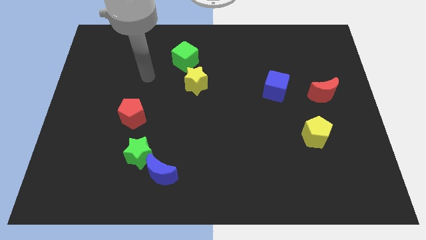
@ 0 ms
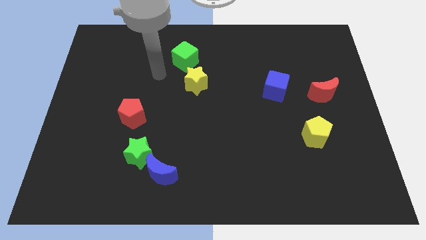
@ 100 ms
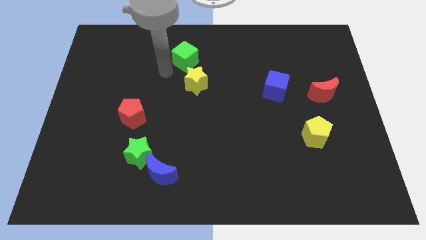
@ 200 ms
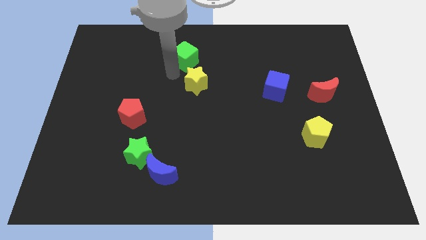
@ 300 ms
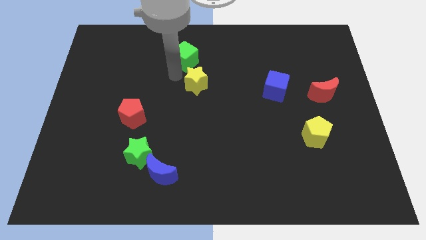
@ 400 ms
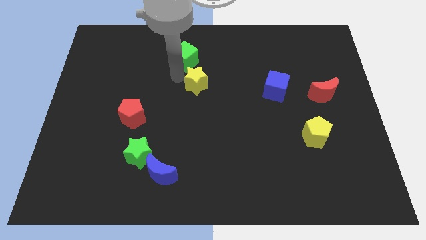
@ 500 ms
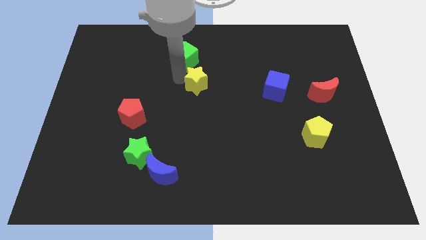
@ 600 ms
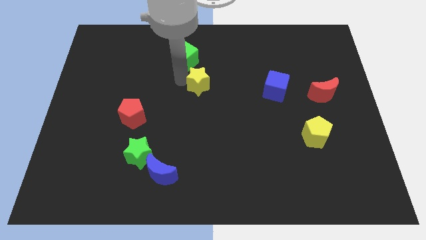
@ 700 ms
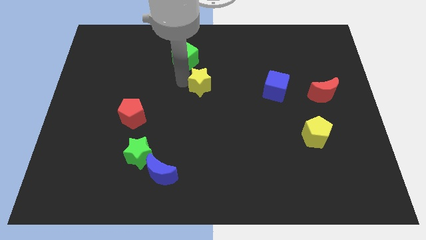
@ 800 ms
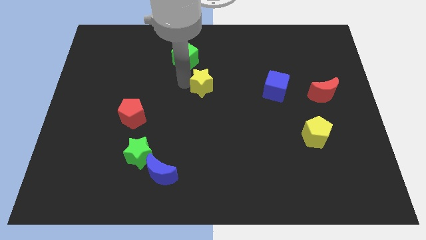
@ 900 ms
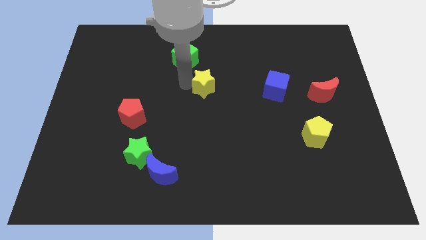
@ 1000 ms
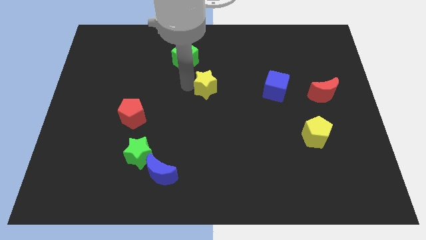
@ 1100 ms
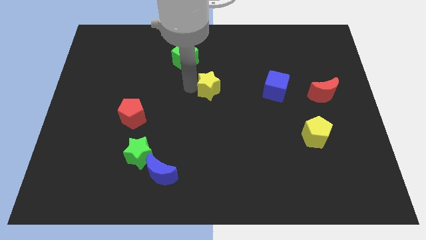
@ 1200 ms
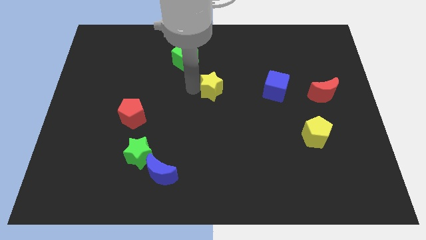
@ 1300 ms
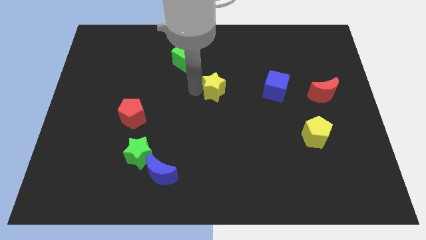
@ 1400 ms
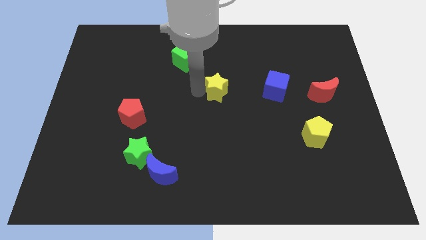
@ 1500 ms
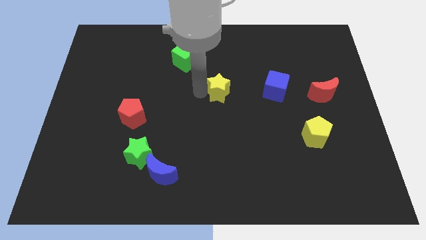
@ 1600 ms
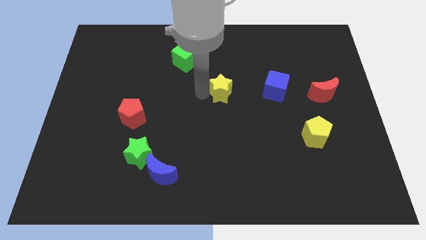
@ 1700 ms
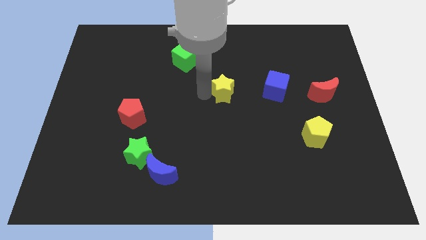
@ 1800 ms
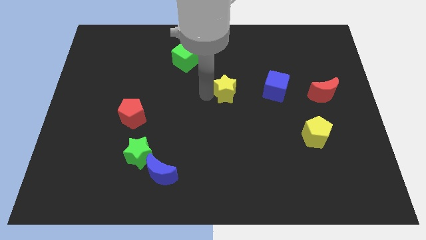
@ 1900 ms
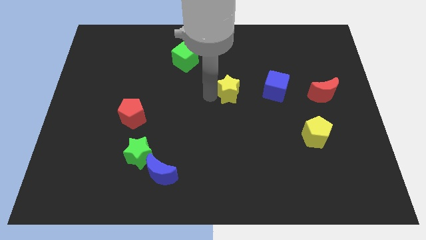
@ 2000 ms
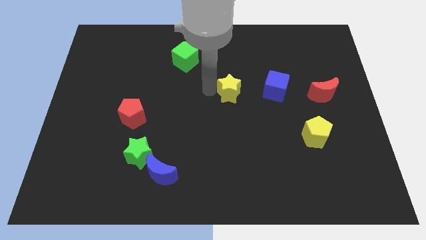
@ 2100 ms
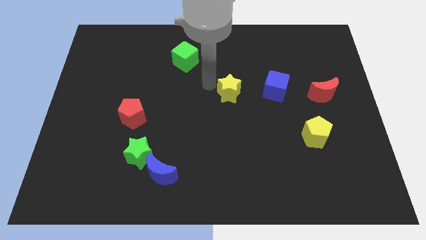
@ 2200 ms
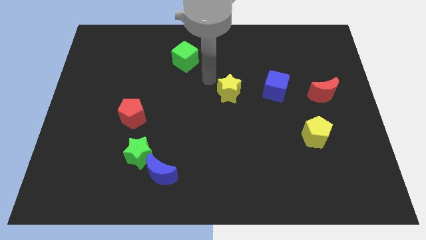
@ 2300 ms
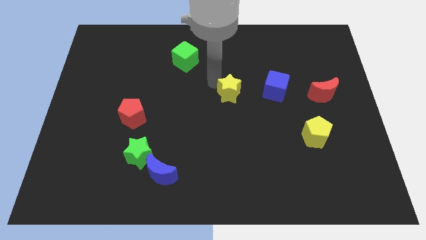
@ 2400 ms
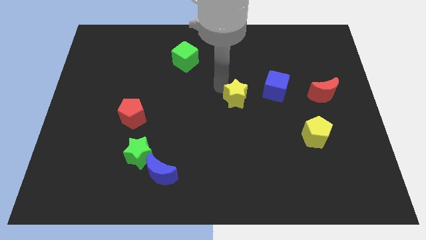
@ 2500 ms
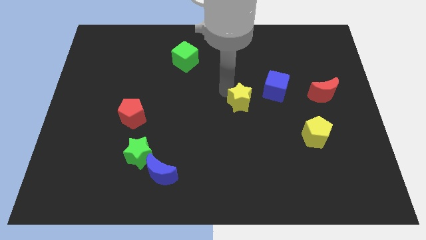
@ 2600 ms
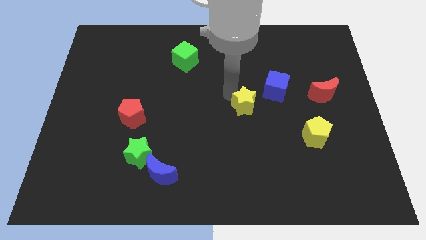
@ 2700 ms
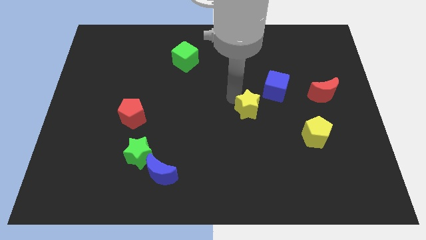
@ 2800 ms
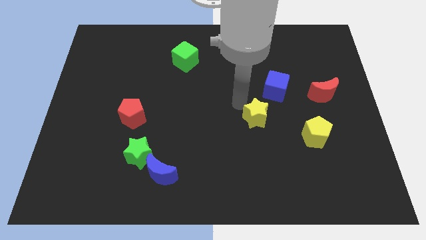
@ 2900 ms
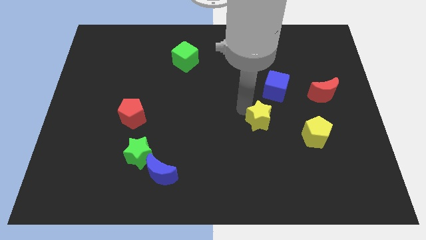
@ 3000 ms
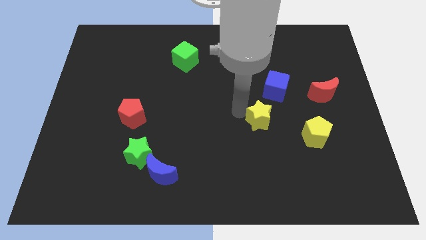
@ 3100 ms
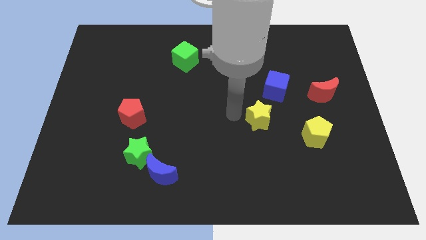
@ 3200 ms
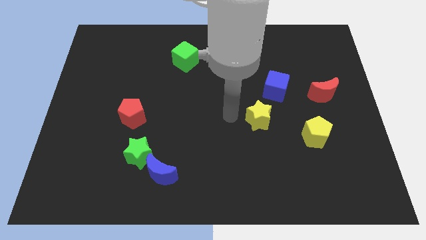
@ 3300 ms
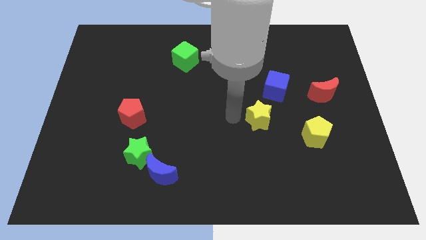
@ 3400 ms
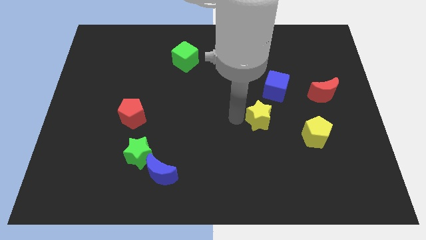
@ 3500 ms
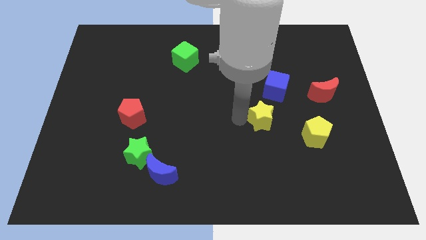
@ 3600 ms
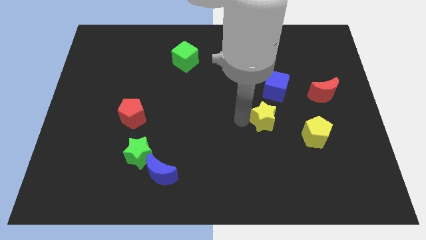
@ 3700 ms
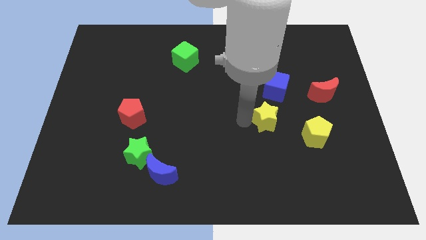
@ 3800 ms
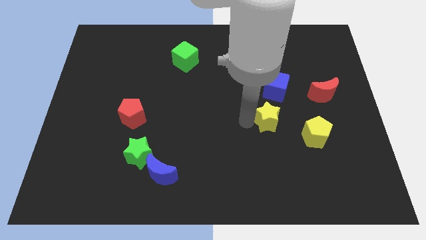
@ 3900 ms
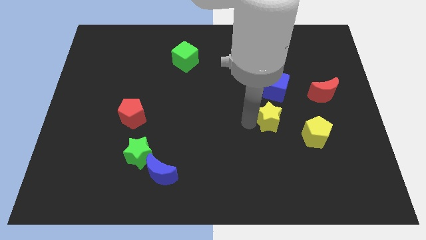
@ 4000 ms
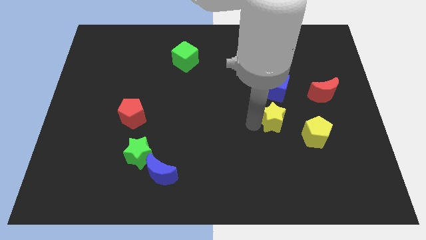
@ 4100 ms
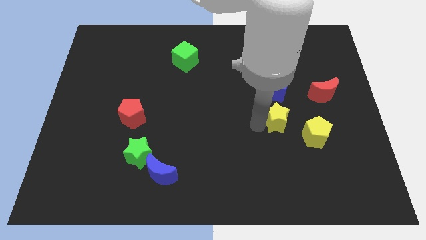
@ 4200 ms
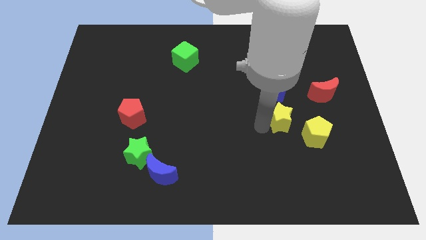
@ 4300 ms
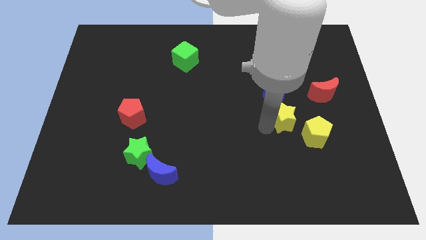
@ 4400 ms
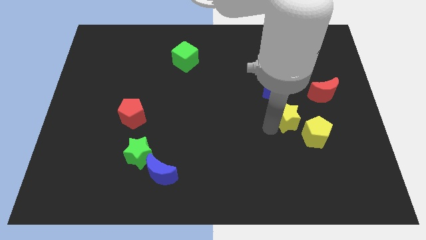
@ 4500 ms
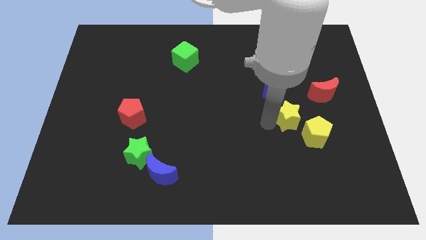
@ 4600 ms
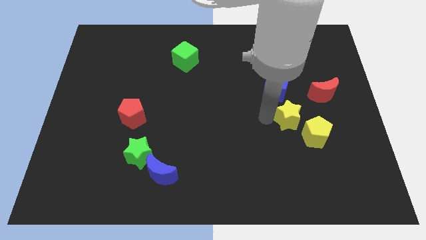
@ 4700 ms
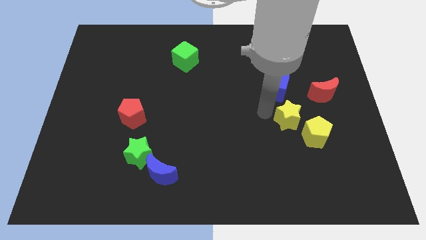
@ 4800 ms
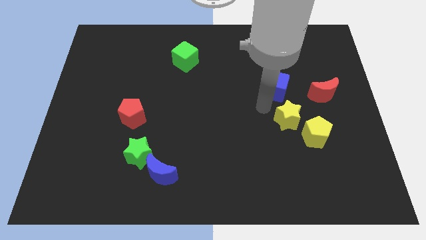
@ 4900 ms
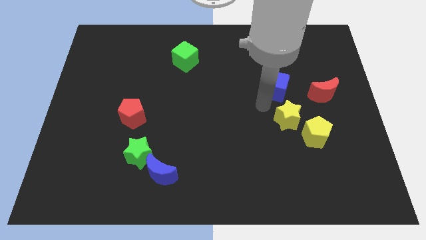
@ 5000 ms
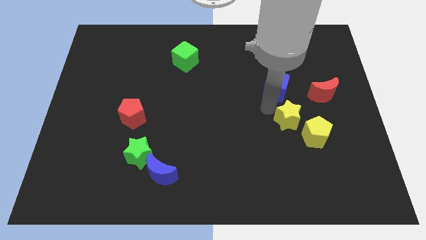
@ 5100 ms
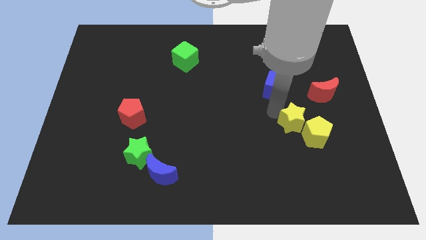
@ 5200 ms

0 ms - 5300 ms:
put the yellow star close to the yellow pentagon

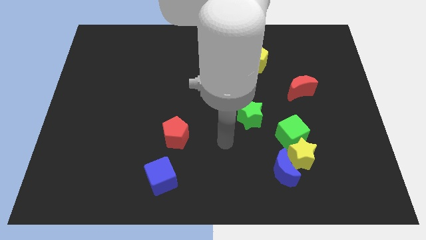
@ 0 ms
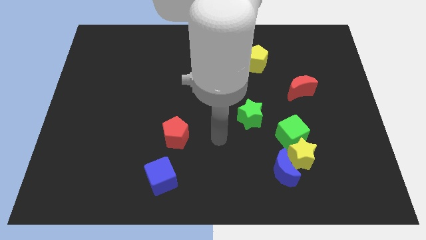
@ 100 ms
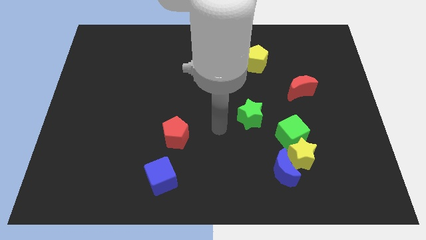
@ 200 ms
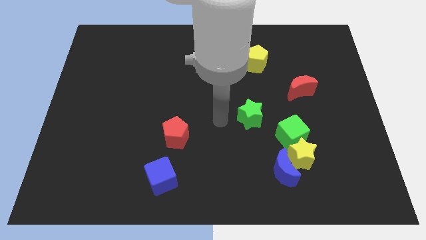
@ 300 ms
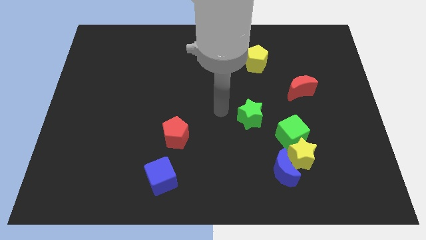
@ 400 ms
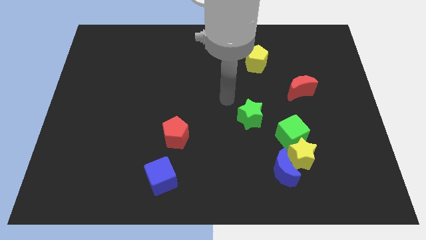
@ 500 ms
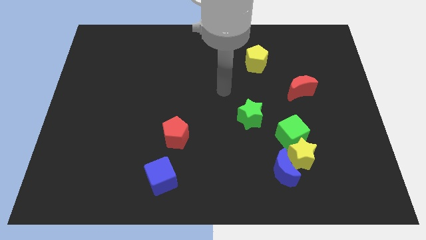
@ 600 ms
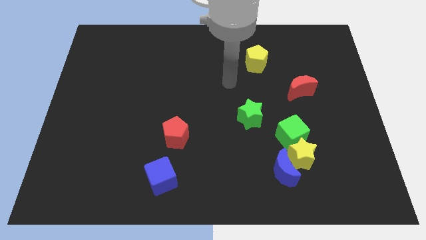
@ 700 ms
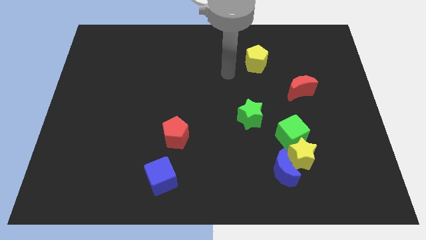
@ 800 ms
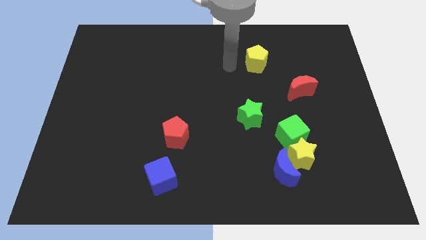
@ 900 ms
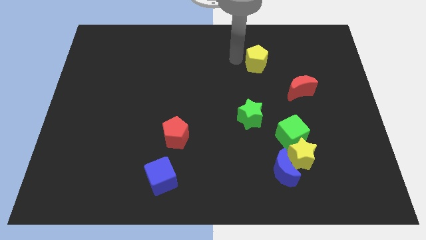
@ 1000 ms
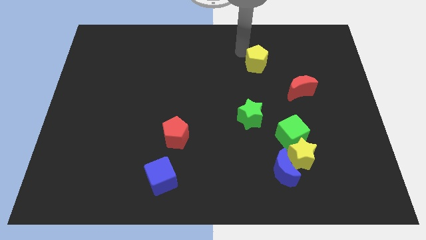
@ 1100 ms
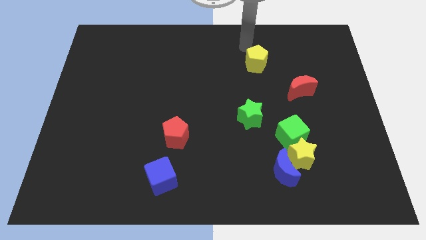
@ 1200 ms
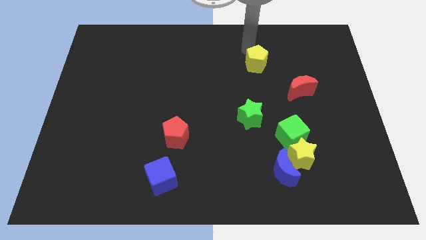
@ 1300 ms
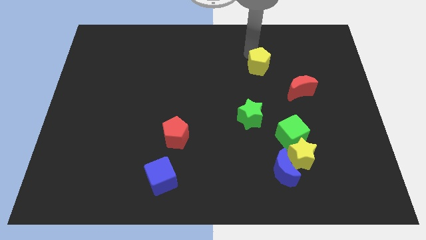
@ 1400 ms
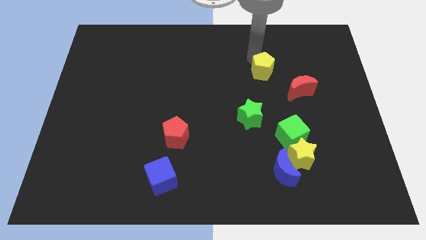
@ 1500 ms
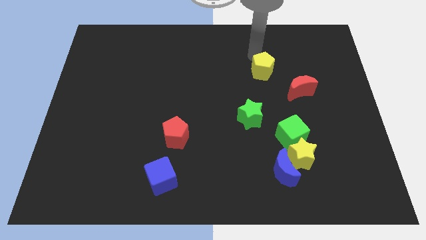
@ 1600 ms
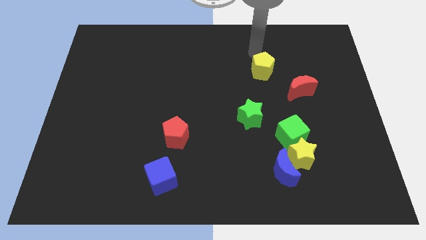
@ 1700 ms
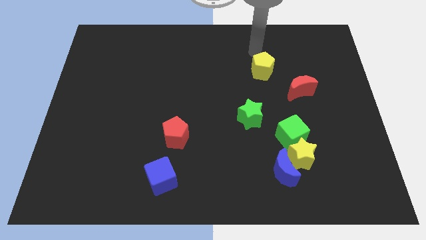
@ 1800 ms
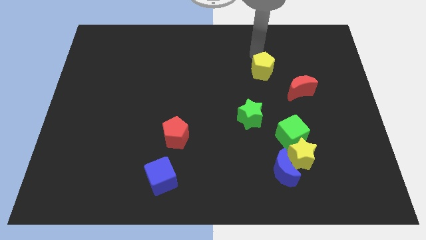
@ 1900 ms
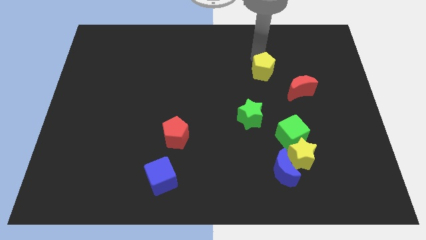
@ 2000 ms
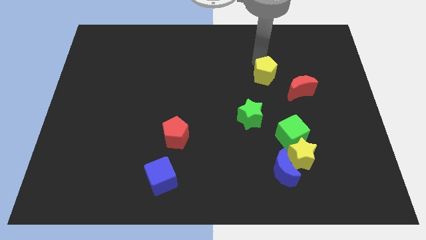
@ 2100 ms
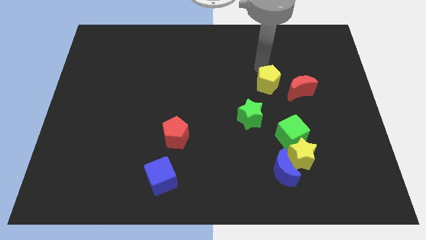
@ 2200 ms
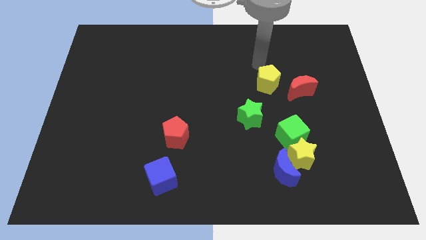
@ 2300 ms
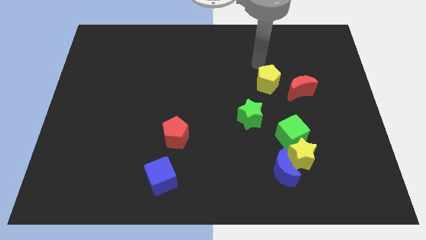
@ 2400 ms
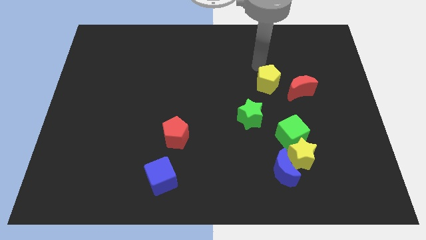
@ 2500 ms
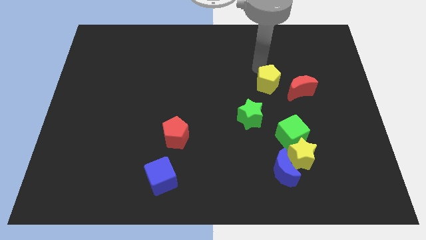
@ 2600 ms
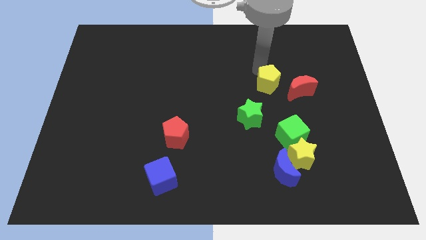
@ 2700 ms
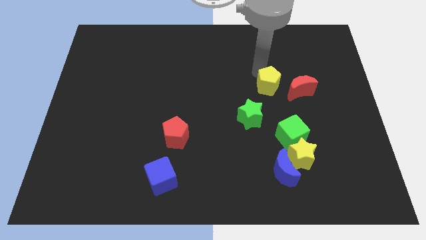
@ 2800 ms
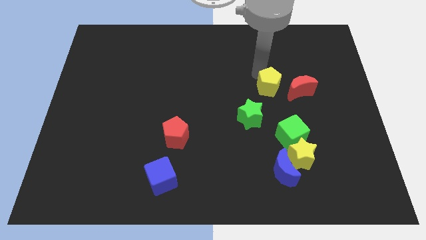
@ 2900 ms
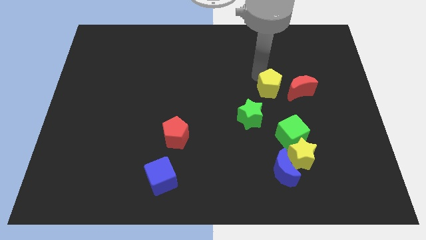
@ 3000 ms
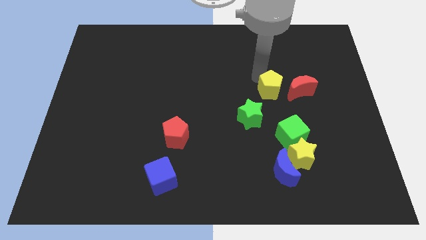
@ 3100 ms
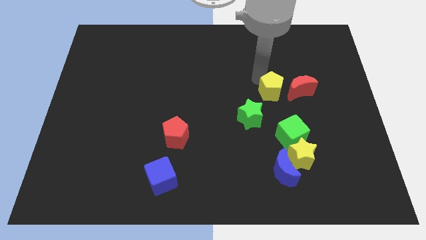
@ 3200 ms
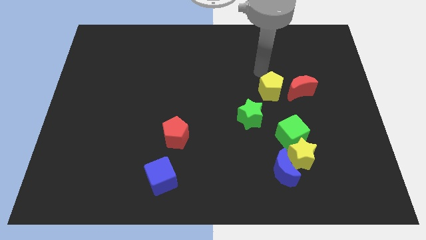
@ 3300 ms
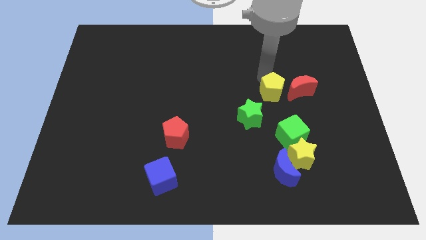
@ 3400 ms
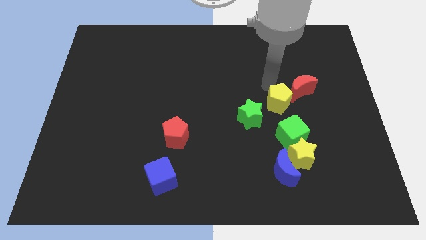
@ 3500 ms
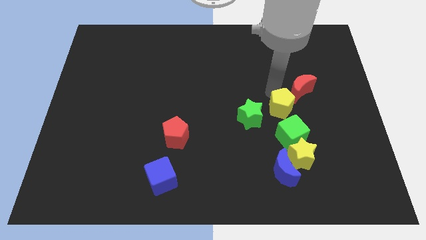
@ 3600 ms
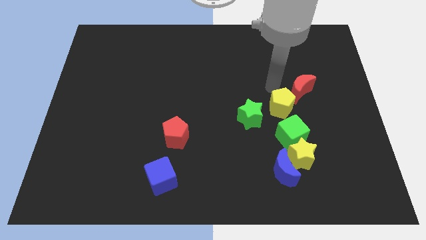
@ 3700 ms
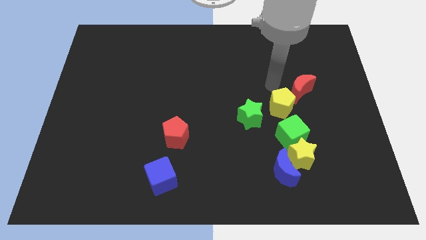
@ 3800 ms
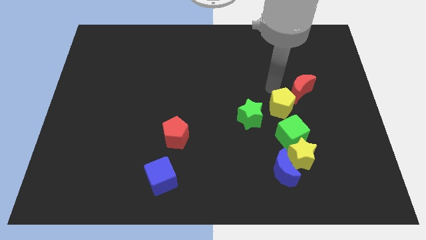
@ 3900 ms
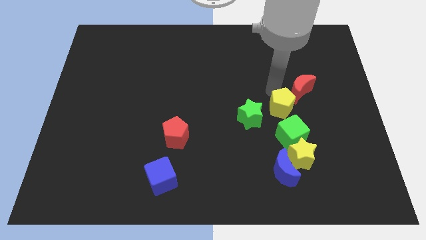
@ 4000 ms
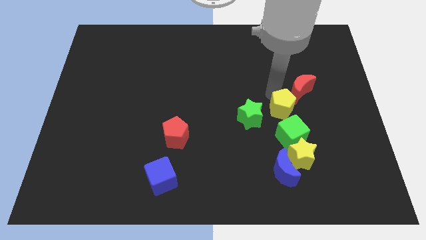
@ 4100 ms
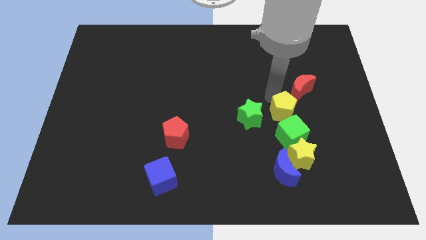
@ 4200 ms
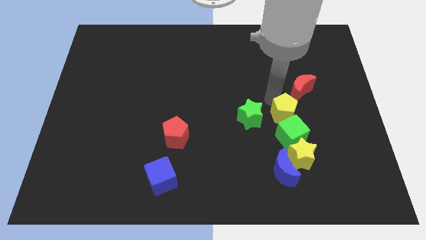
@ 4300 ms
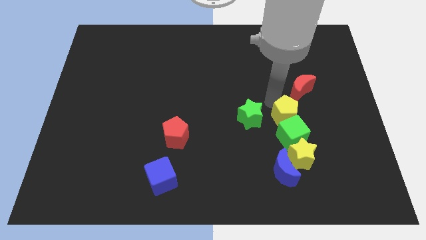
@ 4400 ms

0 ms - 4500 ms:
push the yellow pentagon towards the green cube
